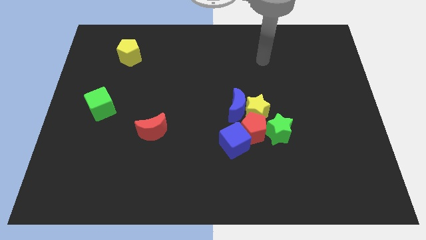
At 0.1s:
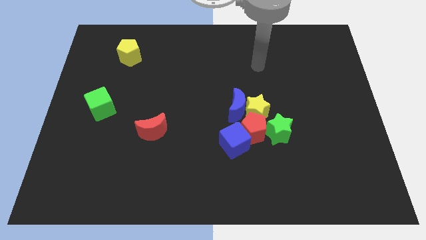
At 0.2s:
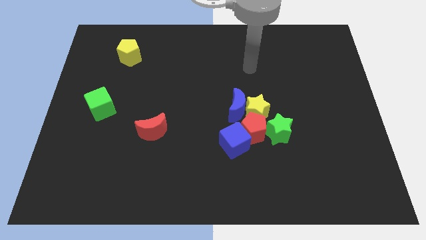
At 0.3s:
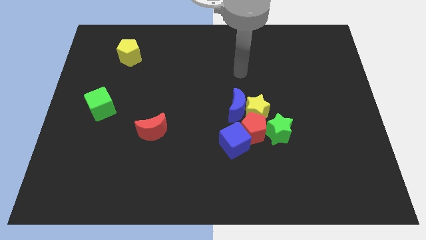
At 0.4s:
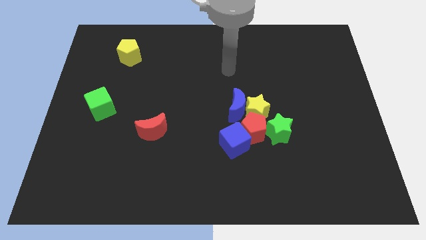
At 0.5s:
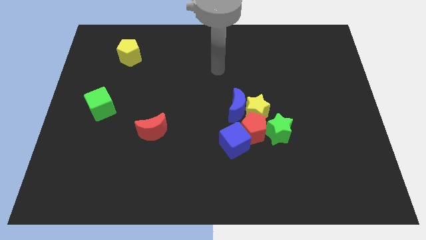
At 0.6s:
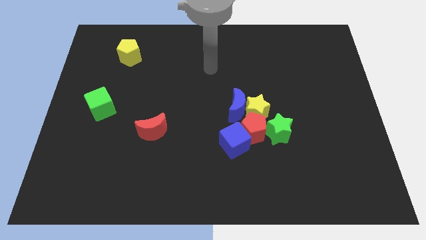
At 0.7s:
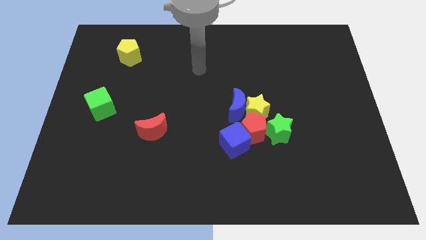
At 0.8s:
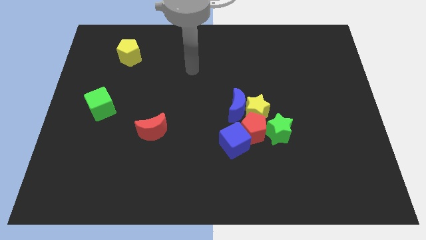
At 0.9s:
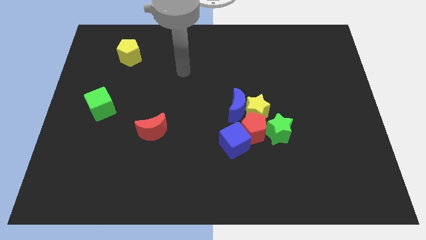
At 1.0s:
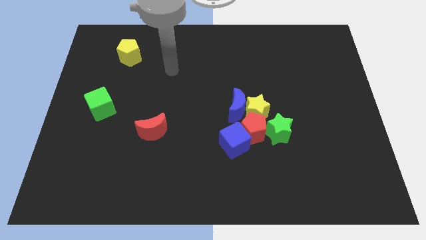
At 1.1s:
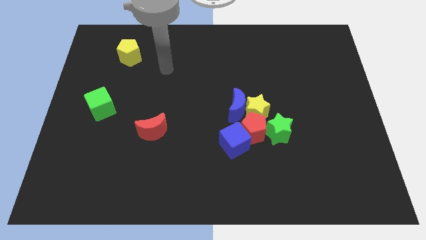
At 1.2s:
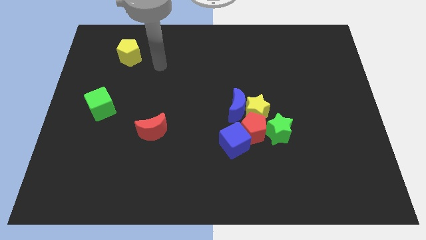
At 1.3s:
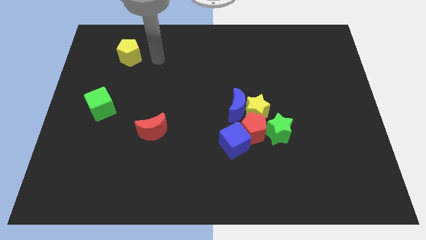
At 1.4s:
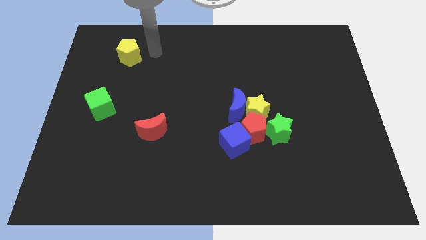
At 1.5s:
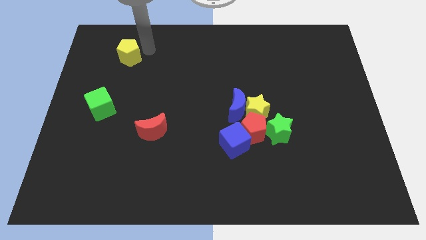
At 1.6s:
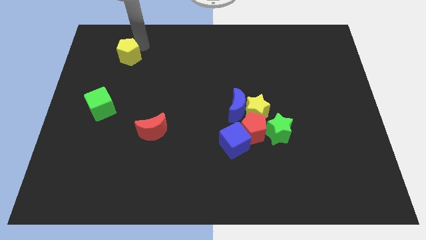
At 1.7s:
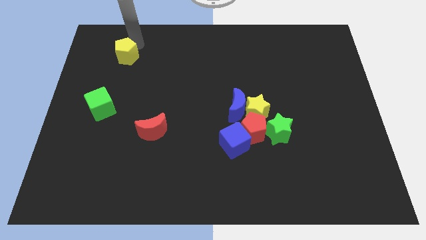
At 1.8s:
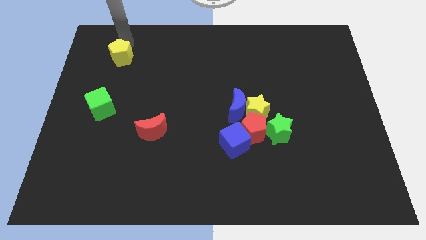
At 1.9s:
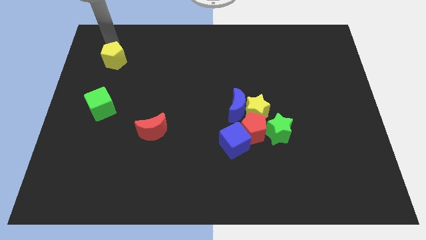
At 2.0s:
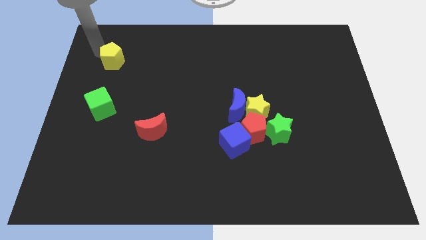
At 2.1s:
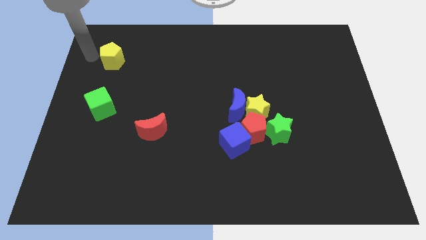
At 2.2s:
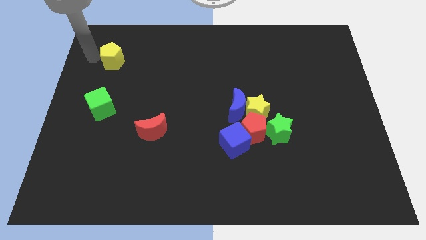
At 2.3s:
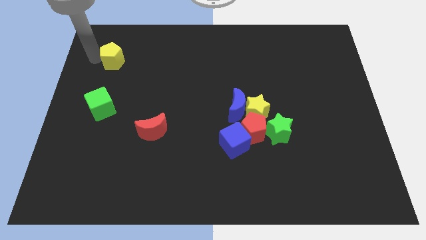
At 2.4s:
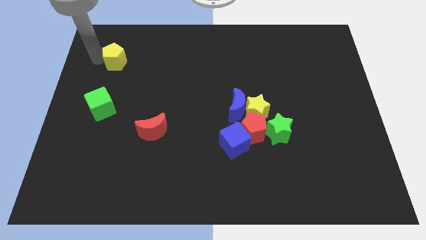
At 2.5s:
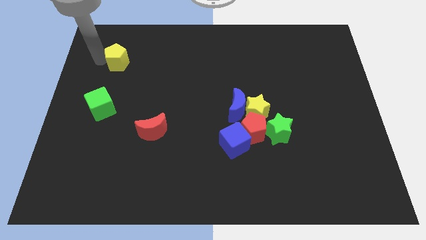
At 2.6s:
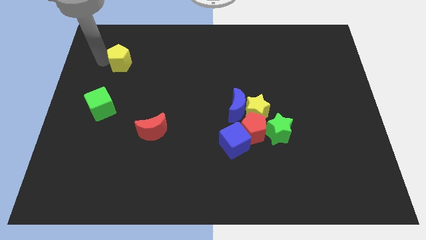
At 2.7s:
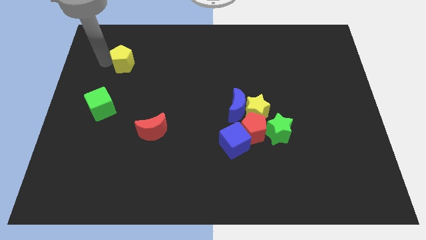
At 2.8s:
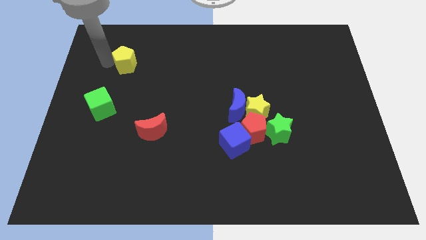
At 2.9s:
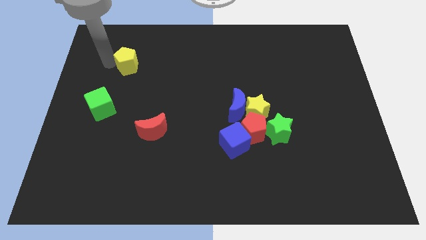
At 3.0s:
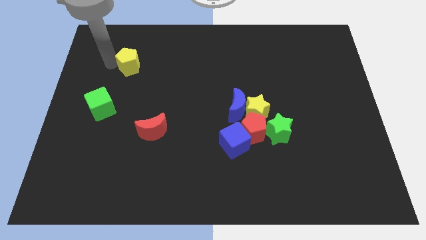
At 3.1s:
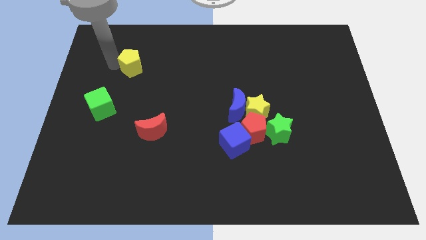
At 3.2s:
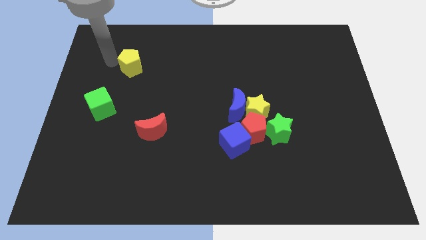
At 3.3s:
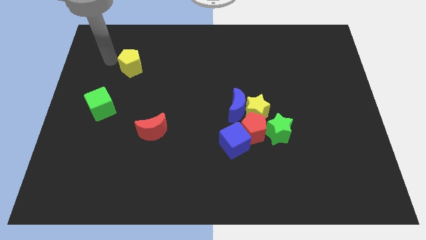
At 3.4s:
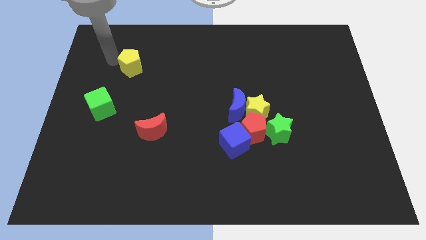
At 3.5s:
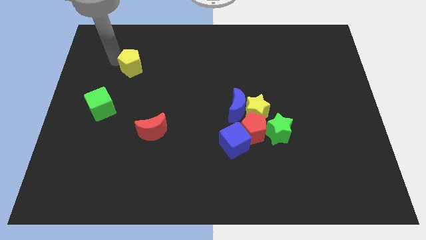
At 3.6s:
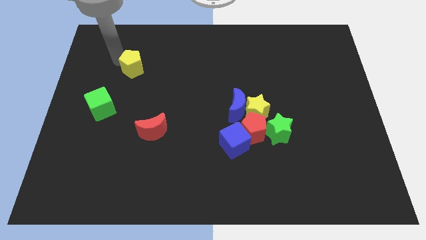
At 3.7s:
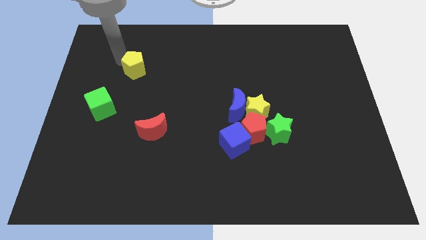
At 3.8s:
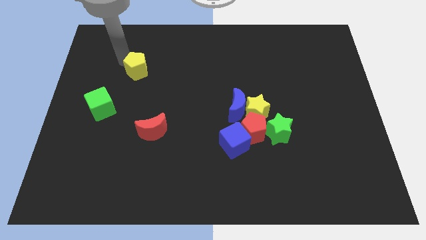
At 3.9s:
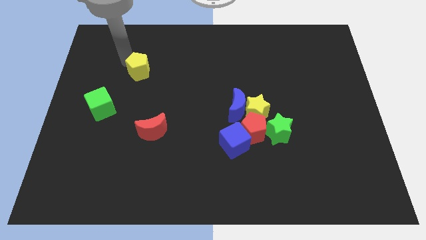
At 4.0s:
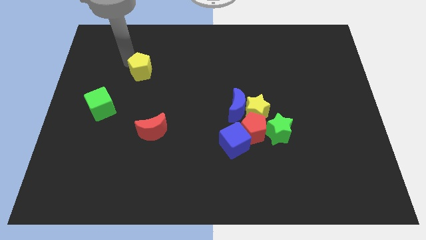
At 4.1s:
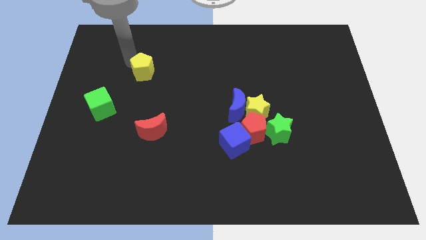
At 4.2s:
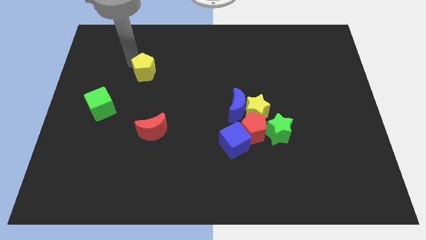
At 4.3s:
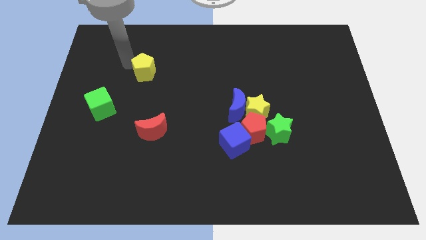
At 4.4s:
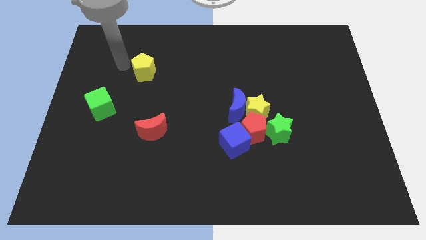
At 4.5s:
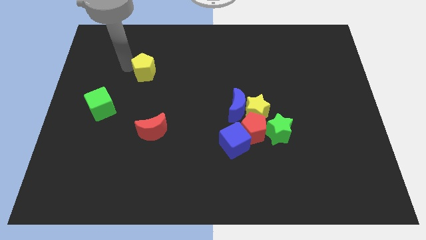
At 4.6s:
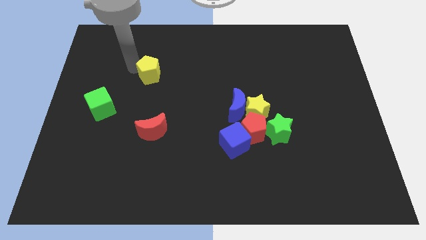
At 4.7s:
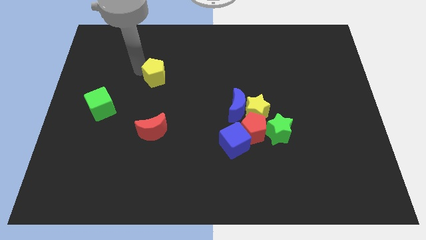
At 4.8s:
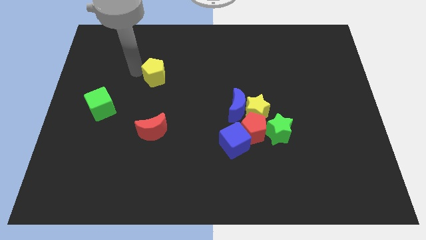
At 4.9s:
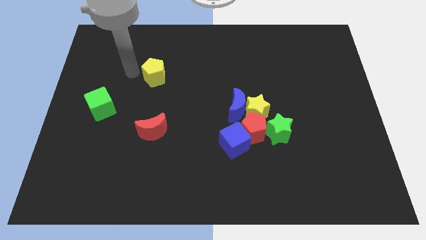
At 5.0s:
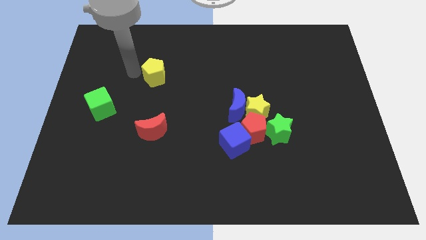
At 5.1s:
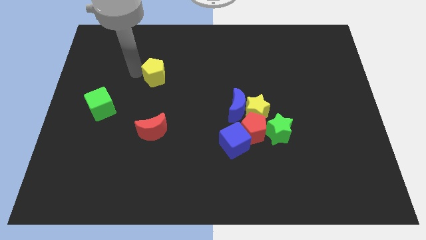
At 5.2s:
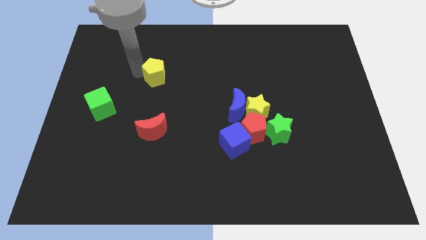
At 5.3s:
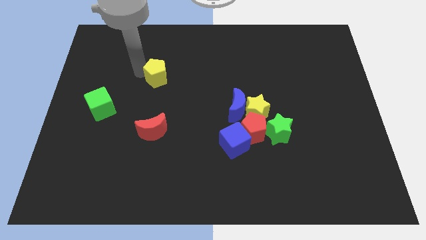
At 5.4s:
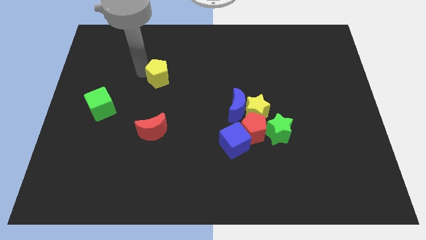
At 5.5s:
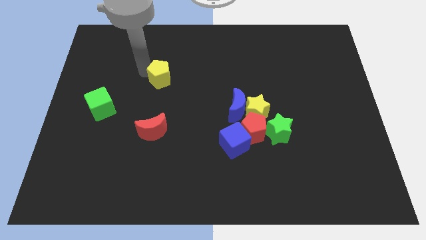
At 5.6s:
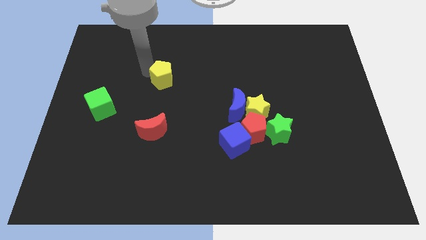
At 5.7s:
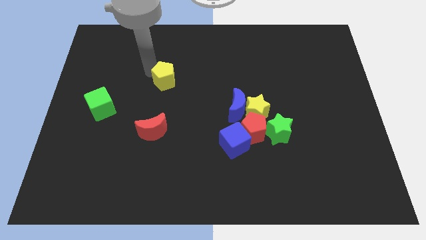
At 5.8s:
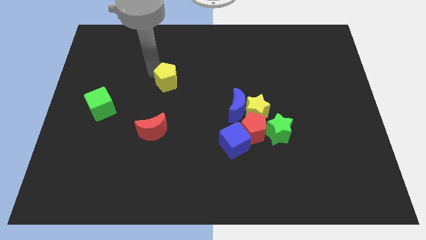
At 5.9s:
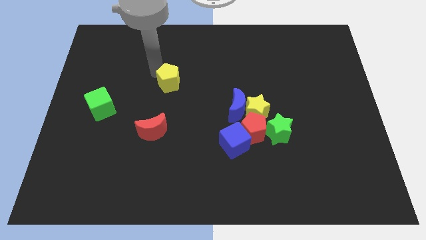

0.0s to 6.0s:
slide the yellow pentagon to the middle

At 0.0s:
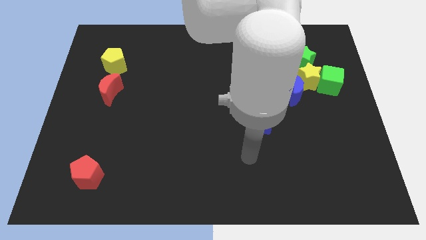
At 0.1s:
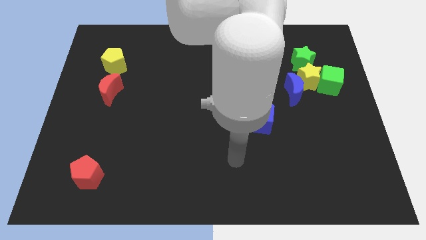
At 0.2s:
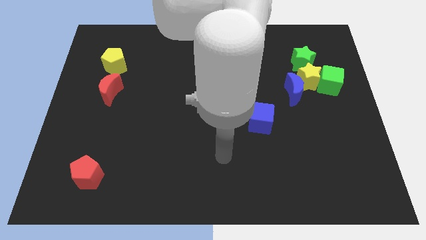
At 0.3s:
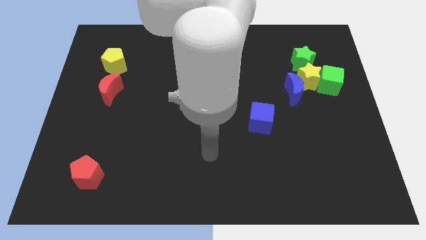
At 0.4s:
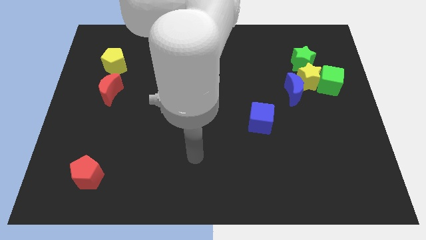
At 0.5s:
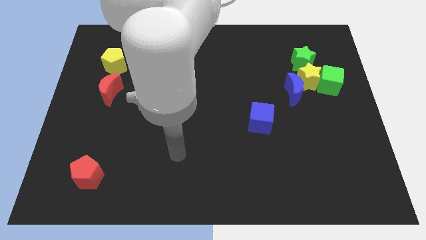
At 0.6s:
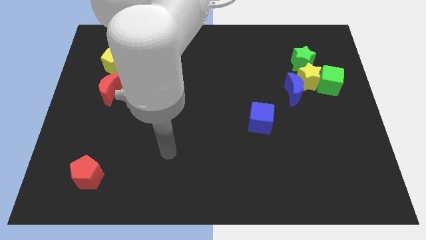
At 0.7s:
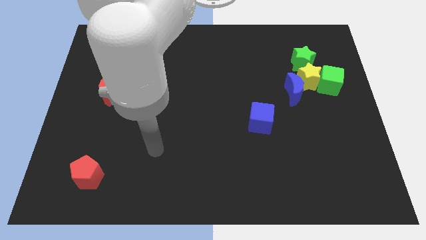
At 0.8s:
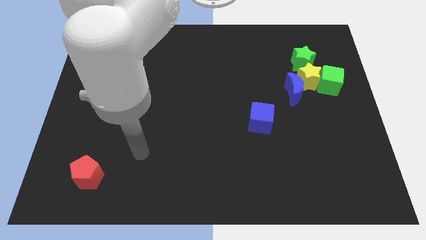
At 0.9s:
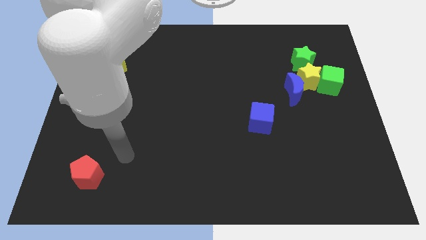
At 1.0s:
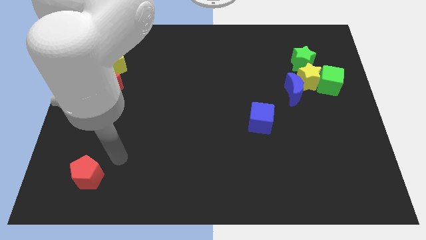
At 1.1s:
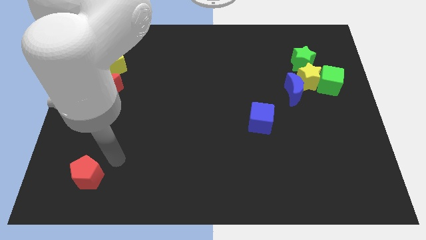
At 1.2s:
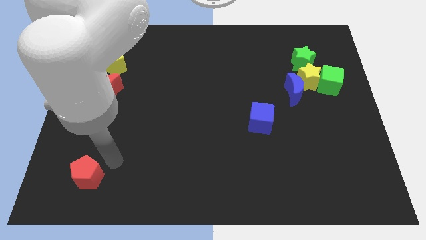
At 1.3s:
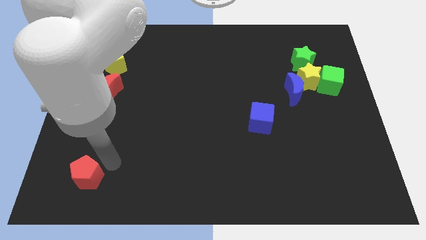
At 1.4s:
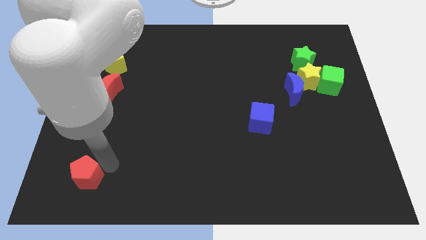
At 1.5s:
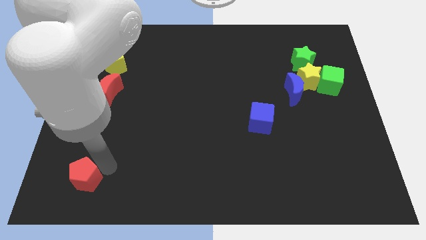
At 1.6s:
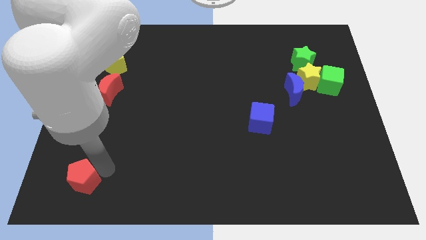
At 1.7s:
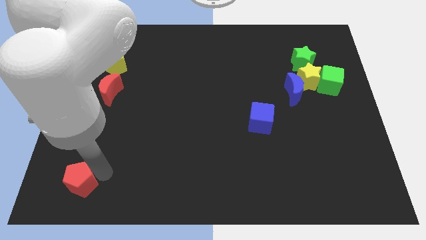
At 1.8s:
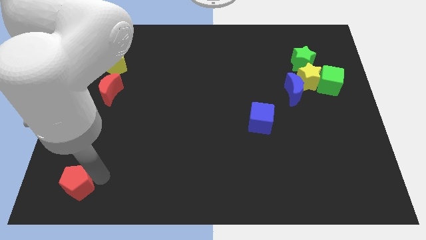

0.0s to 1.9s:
move the red pentagon to the bottom left of the board
